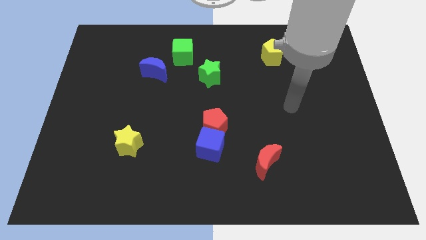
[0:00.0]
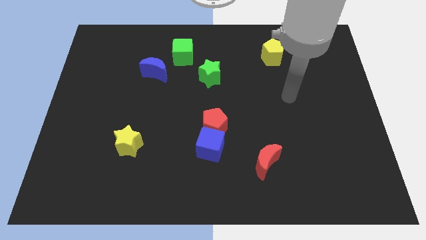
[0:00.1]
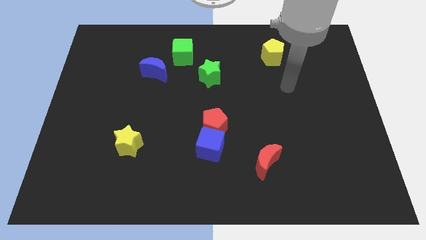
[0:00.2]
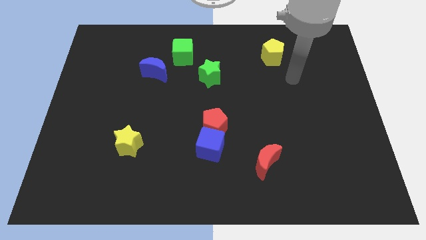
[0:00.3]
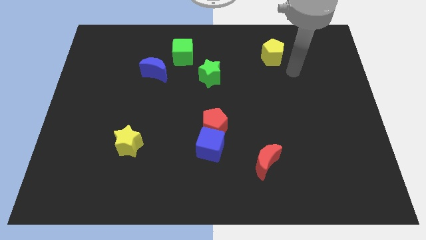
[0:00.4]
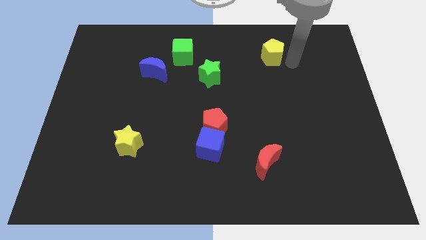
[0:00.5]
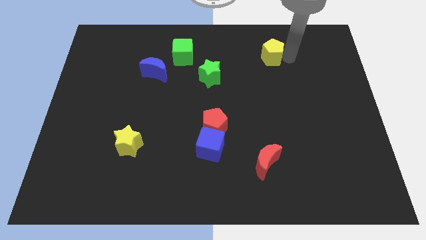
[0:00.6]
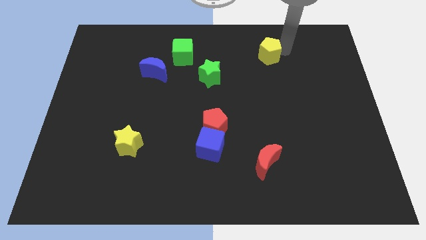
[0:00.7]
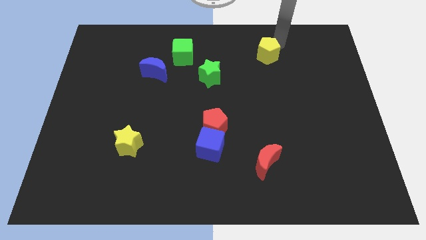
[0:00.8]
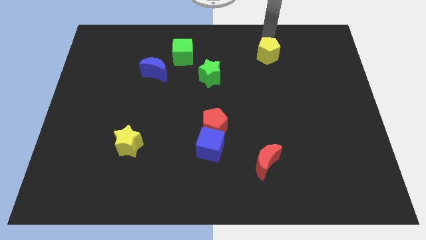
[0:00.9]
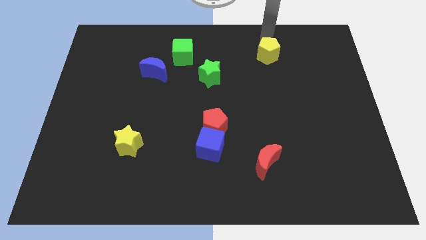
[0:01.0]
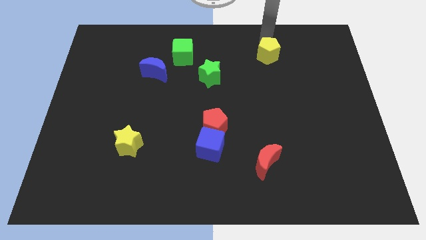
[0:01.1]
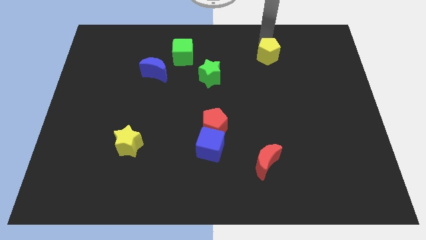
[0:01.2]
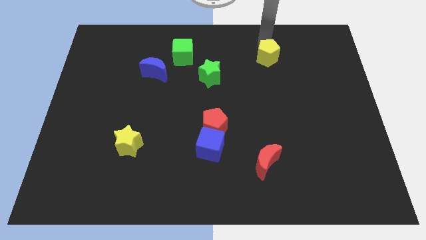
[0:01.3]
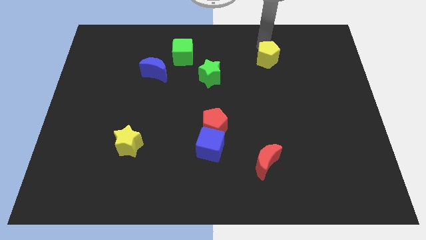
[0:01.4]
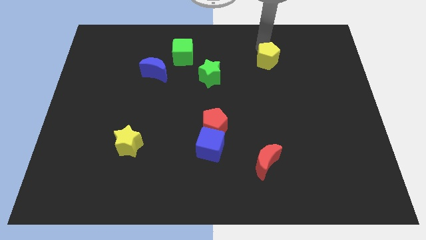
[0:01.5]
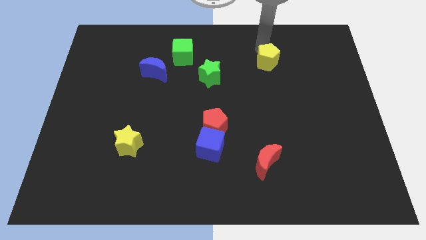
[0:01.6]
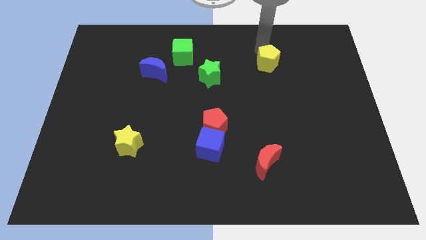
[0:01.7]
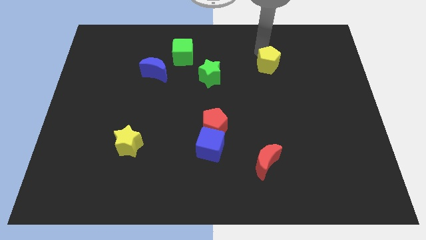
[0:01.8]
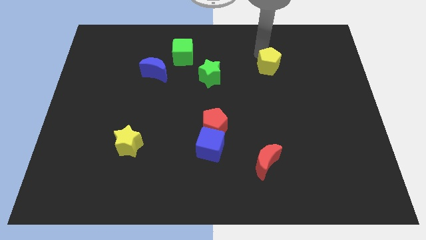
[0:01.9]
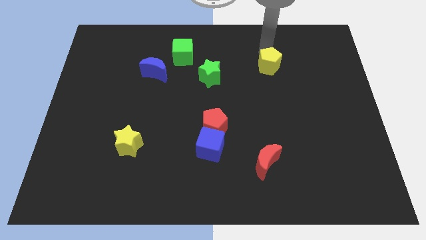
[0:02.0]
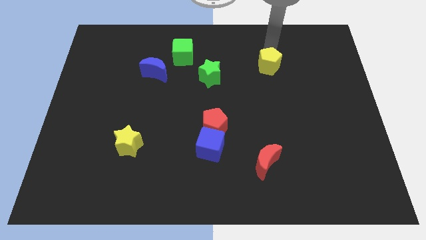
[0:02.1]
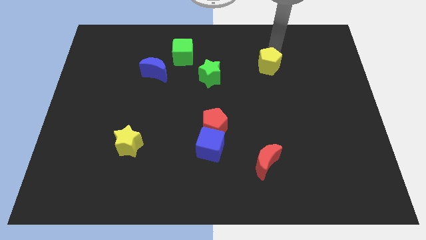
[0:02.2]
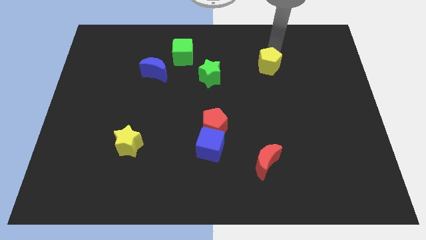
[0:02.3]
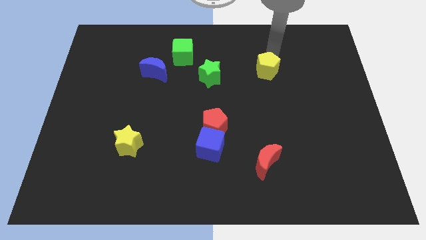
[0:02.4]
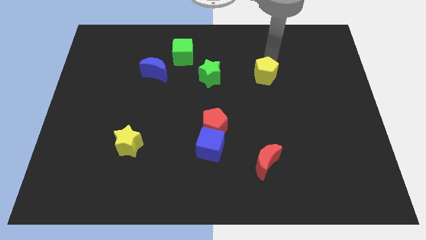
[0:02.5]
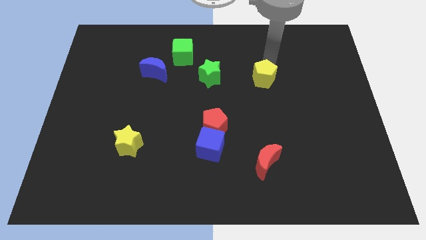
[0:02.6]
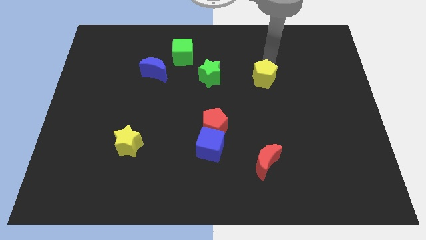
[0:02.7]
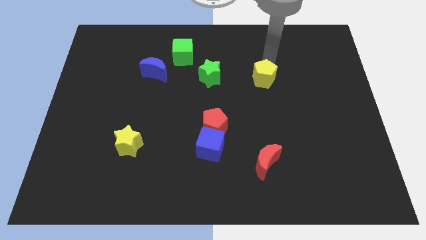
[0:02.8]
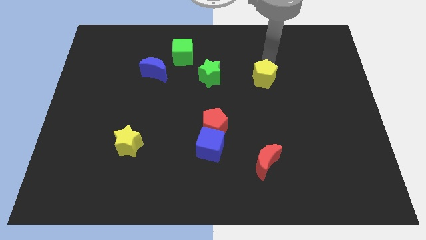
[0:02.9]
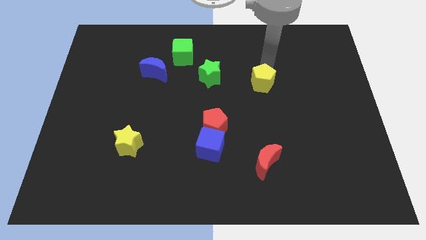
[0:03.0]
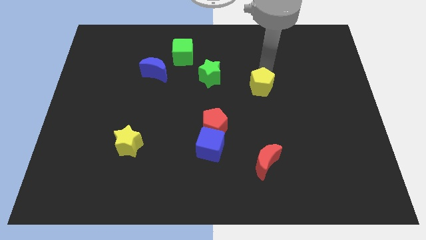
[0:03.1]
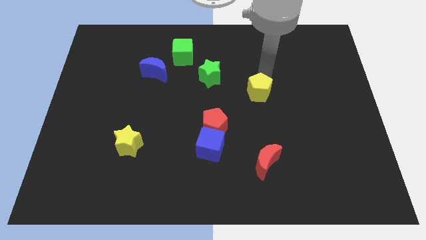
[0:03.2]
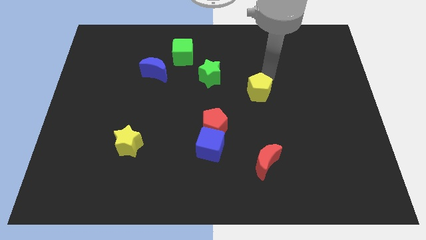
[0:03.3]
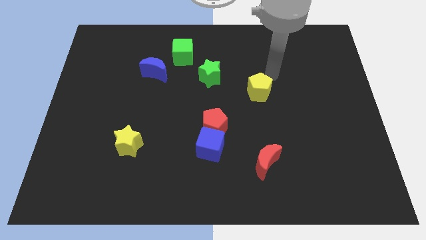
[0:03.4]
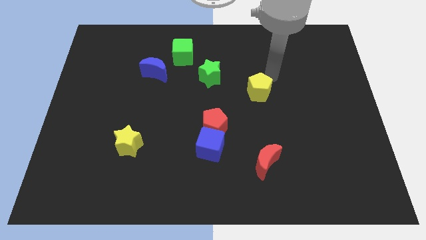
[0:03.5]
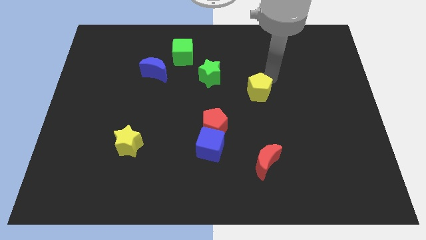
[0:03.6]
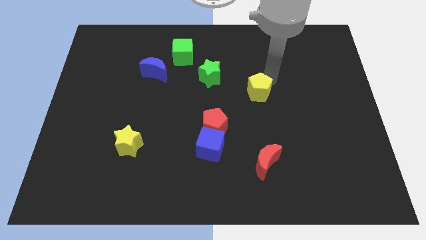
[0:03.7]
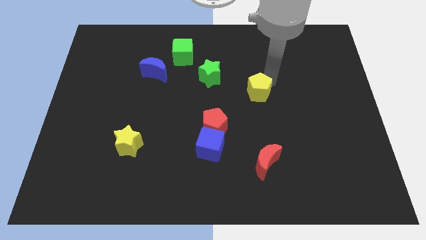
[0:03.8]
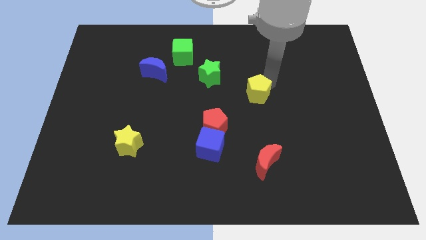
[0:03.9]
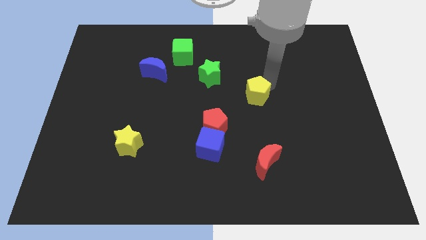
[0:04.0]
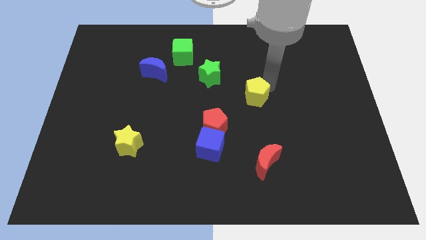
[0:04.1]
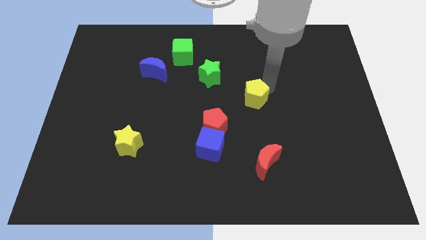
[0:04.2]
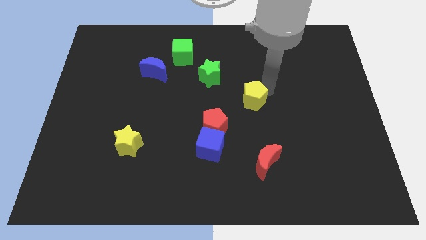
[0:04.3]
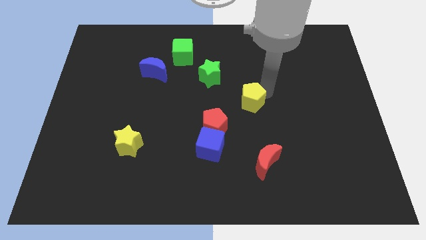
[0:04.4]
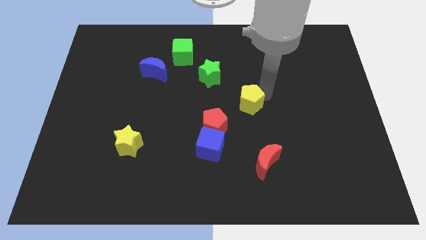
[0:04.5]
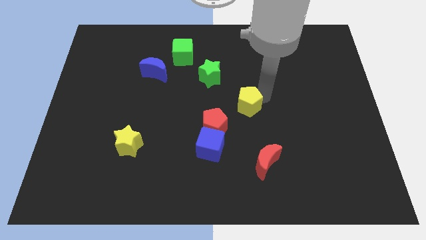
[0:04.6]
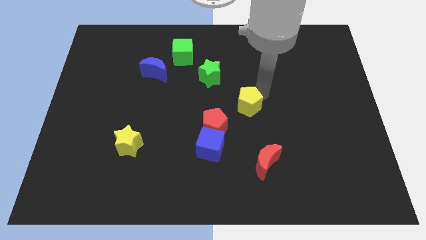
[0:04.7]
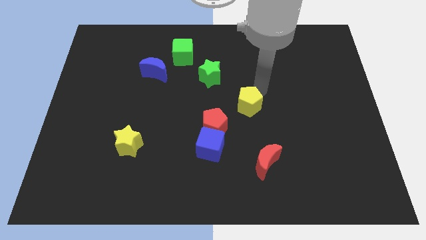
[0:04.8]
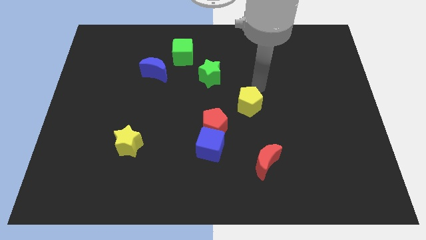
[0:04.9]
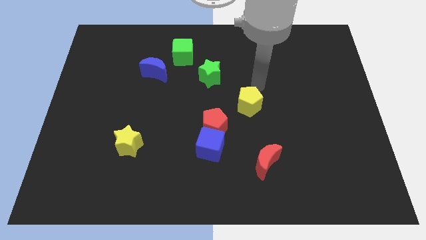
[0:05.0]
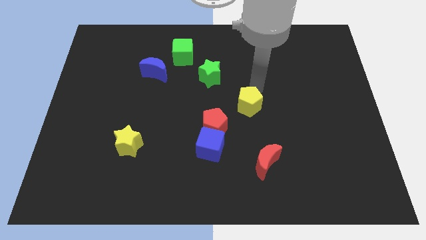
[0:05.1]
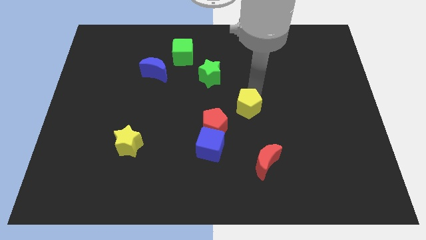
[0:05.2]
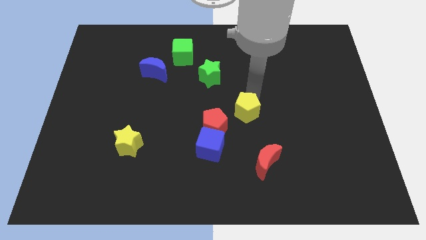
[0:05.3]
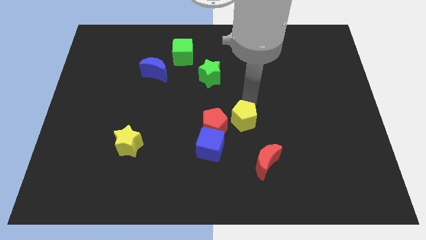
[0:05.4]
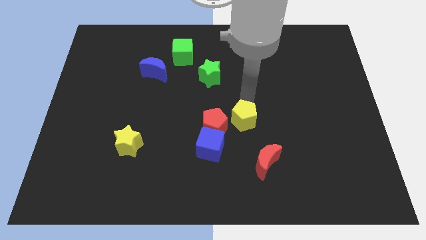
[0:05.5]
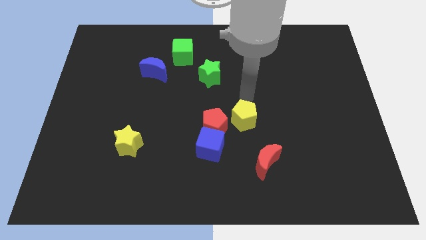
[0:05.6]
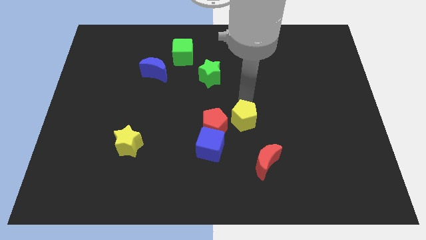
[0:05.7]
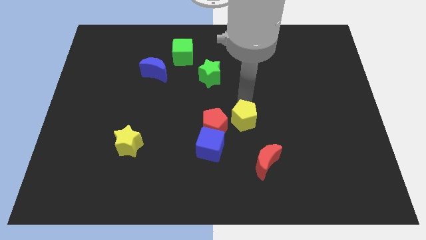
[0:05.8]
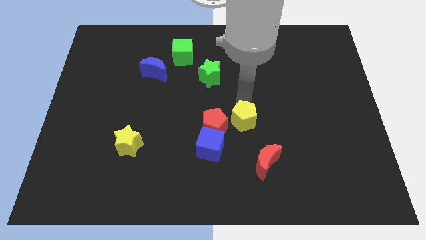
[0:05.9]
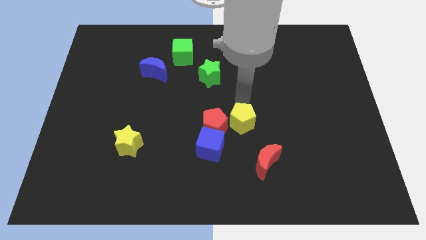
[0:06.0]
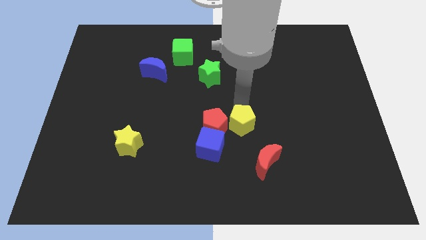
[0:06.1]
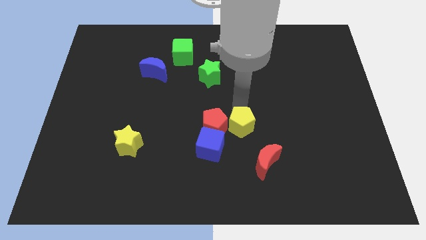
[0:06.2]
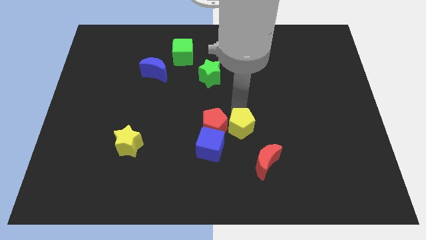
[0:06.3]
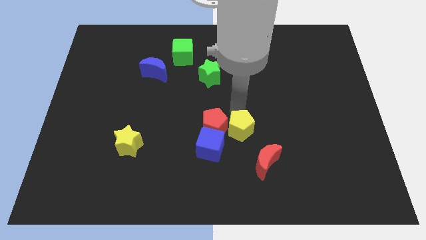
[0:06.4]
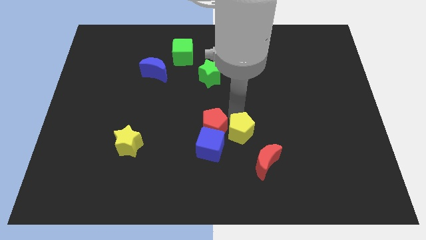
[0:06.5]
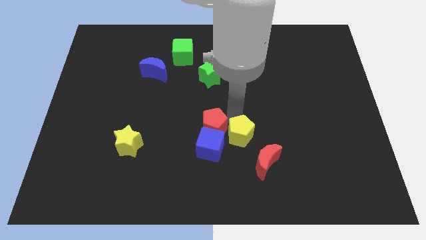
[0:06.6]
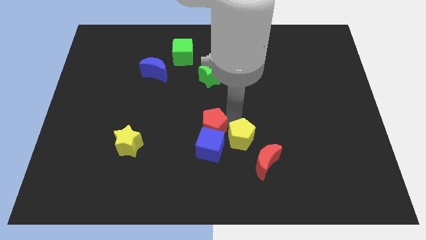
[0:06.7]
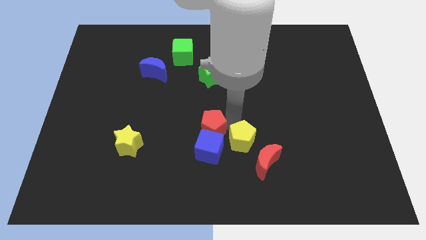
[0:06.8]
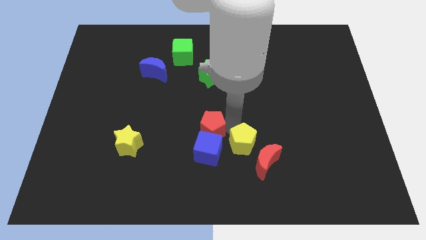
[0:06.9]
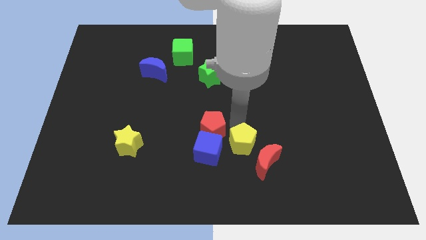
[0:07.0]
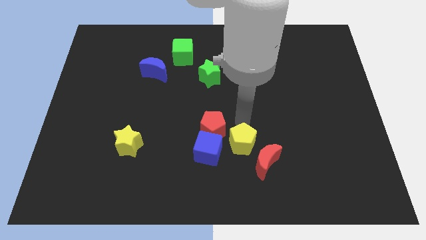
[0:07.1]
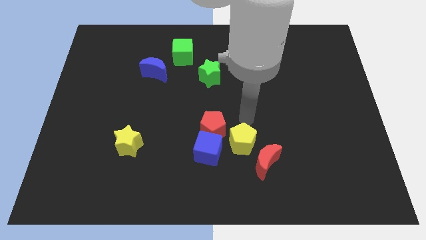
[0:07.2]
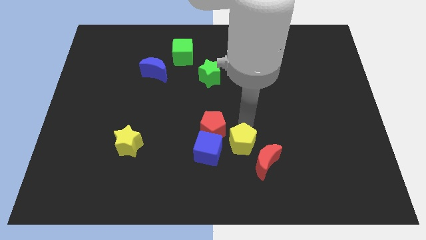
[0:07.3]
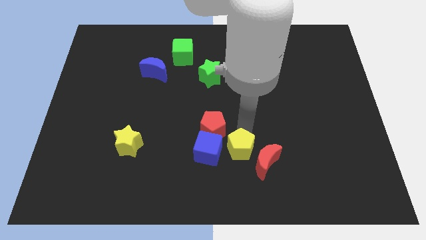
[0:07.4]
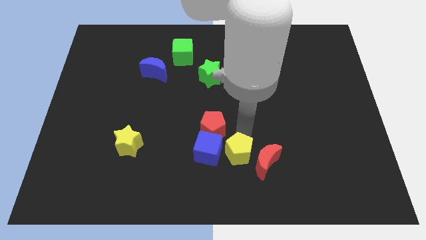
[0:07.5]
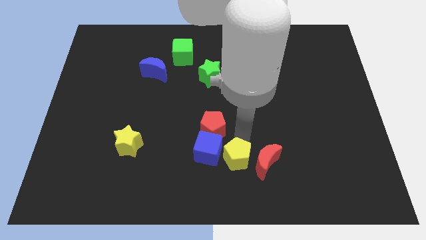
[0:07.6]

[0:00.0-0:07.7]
push the yellow pentagon to the bottom side
